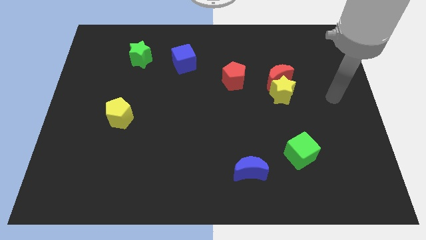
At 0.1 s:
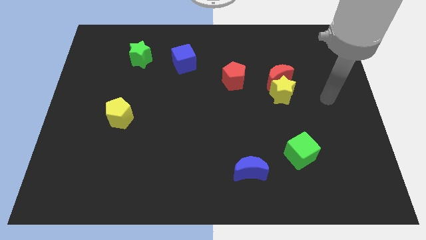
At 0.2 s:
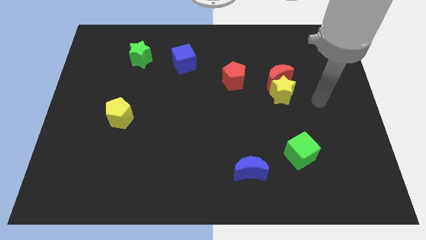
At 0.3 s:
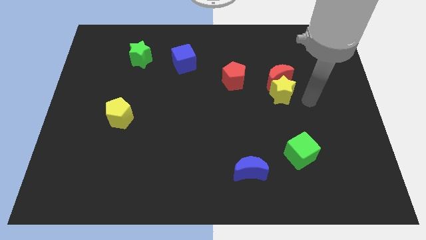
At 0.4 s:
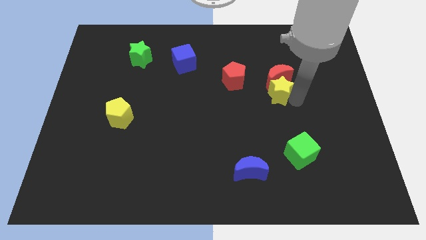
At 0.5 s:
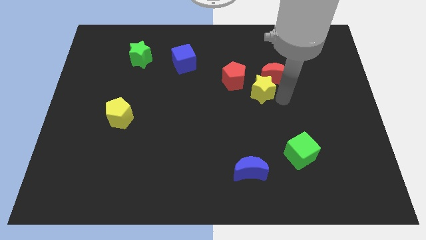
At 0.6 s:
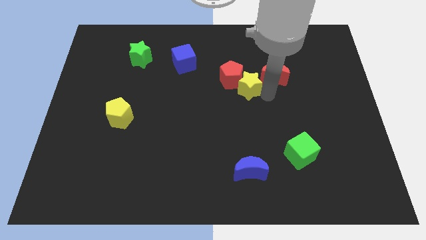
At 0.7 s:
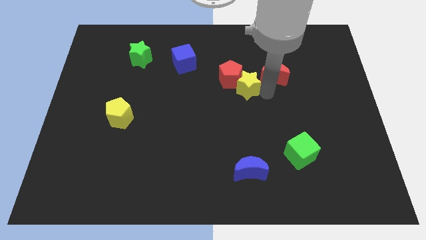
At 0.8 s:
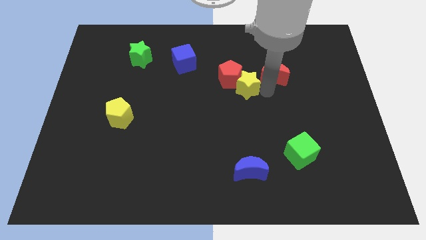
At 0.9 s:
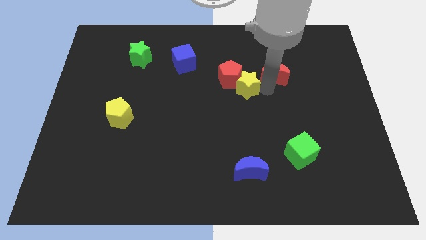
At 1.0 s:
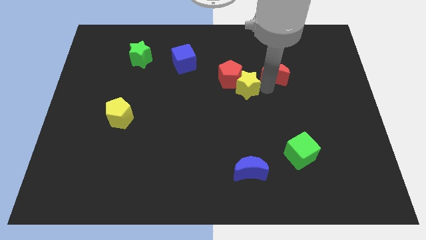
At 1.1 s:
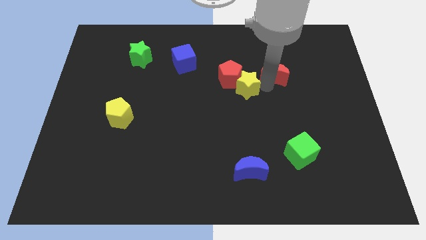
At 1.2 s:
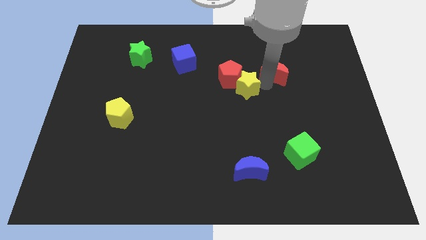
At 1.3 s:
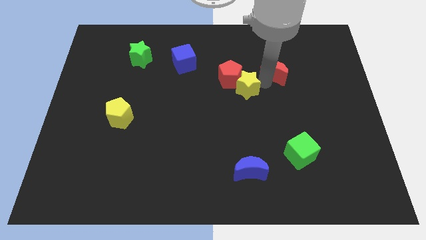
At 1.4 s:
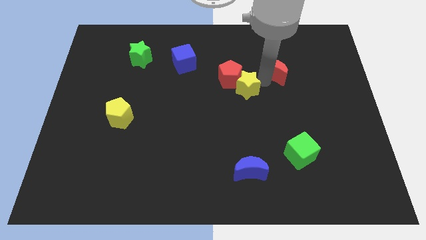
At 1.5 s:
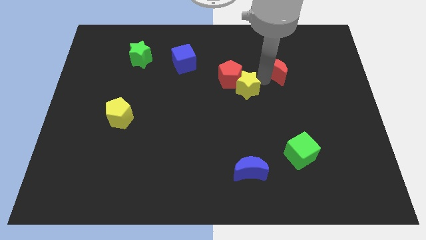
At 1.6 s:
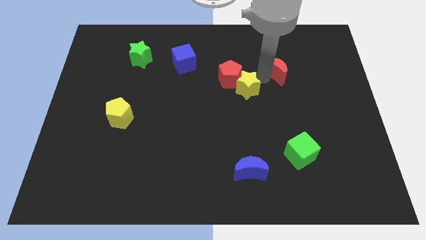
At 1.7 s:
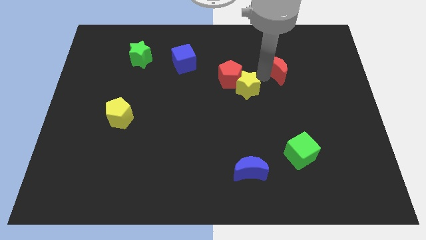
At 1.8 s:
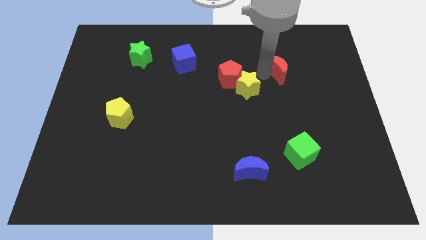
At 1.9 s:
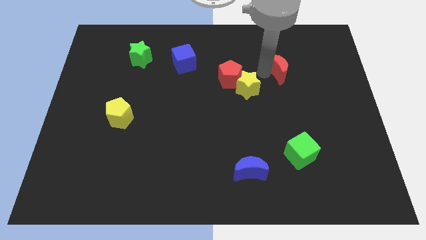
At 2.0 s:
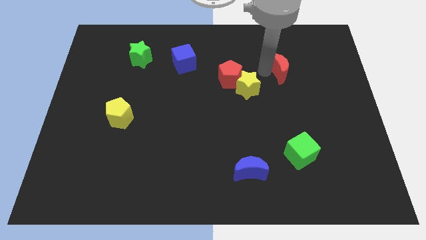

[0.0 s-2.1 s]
move the red moon away from the yellow star

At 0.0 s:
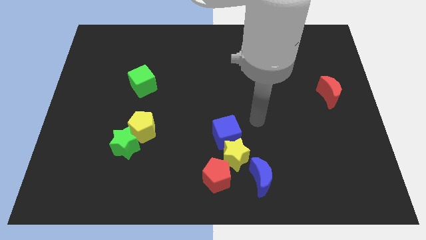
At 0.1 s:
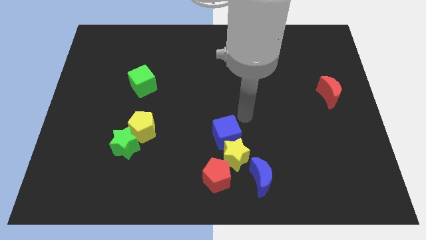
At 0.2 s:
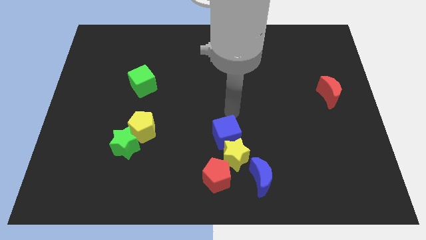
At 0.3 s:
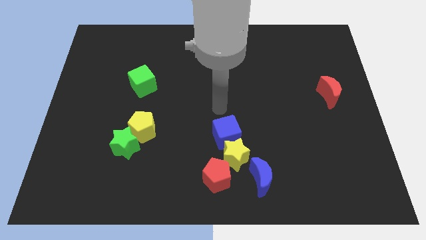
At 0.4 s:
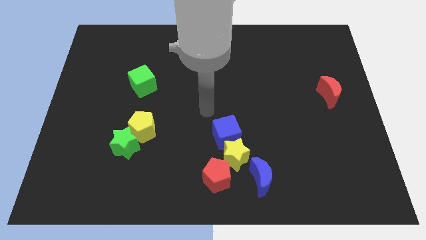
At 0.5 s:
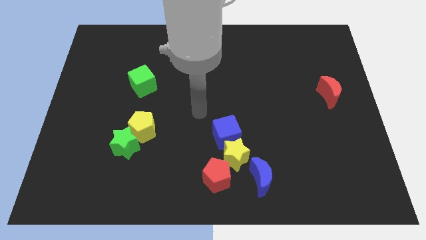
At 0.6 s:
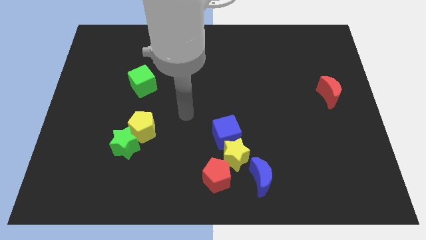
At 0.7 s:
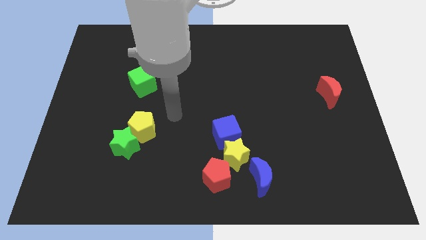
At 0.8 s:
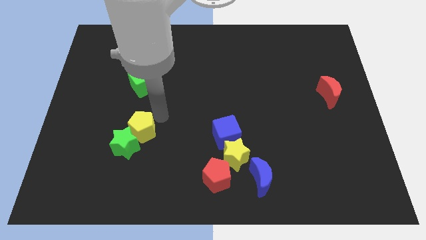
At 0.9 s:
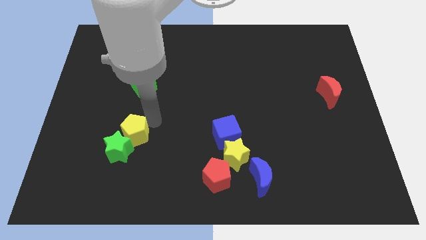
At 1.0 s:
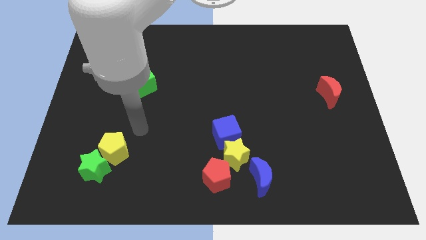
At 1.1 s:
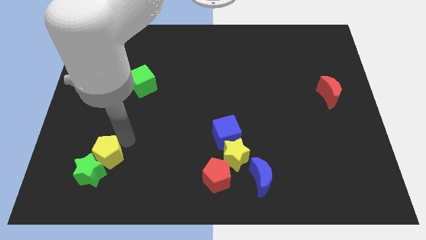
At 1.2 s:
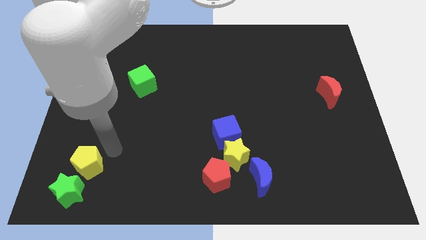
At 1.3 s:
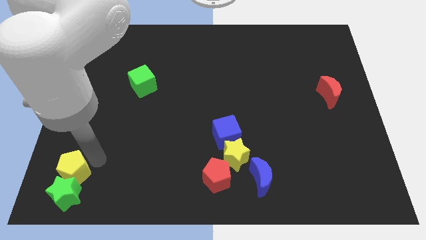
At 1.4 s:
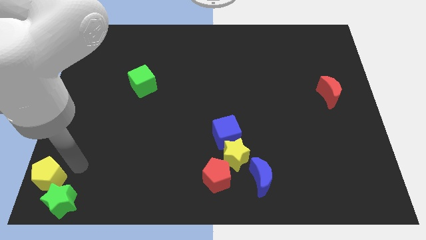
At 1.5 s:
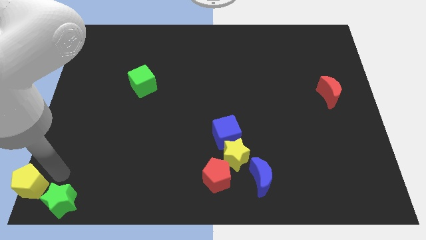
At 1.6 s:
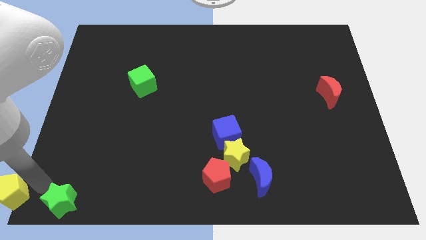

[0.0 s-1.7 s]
pull the green star apart from the yellow pentagon

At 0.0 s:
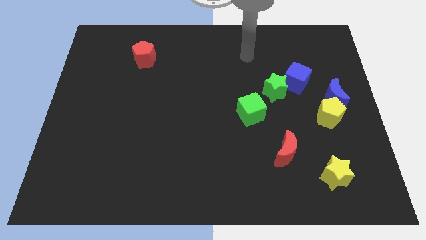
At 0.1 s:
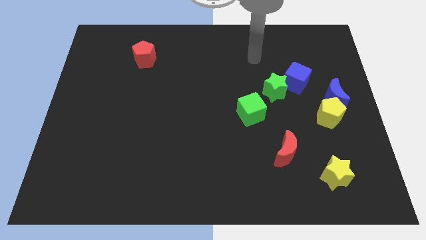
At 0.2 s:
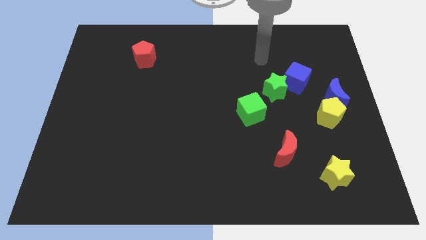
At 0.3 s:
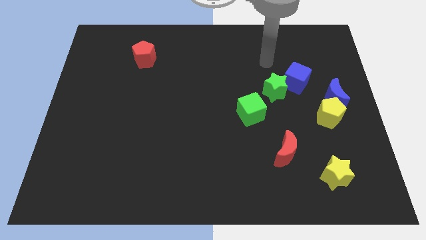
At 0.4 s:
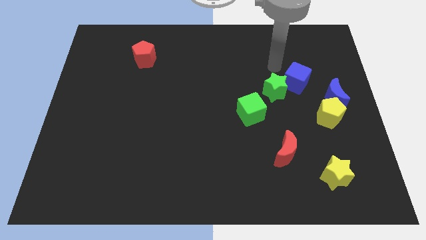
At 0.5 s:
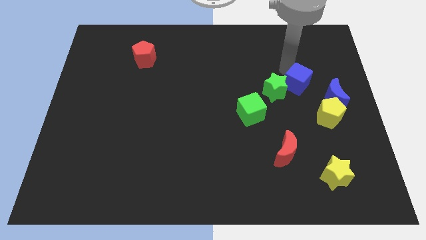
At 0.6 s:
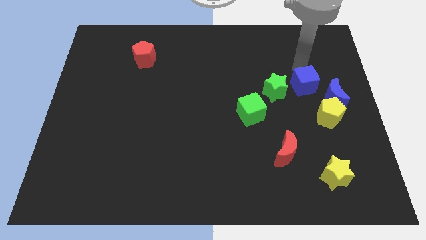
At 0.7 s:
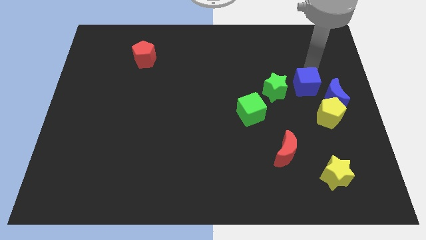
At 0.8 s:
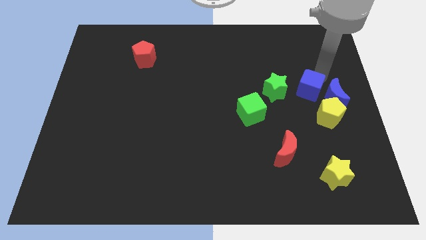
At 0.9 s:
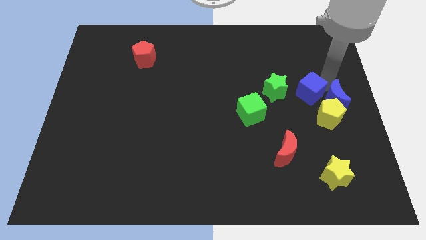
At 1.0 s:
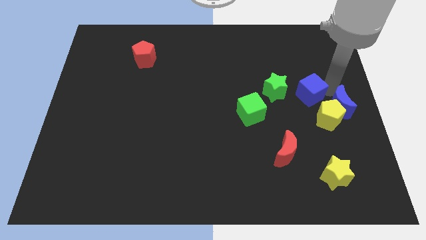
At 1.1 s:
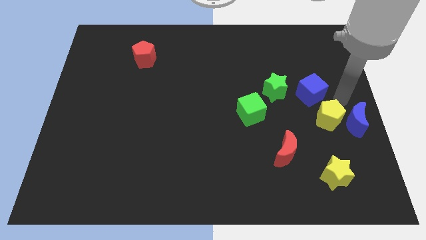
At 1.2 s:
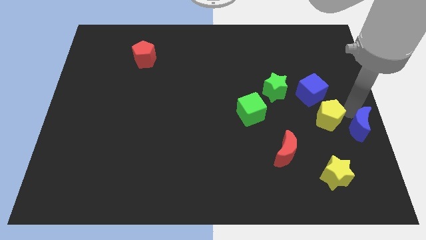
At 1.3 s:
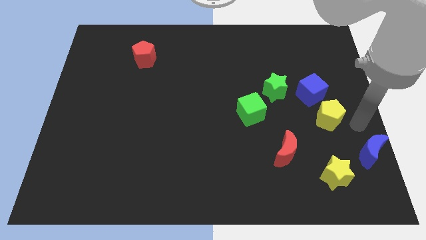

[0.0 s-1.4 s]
pull the yellow pentagon apart from the blue moon

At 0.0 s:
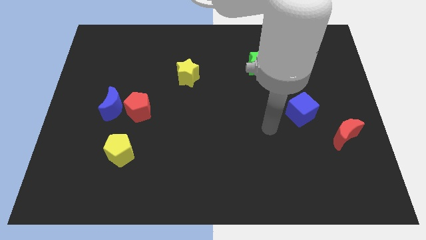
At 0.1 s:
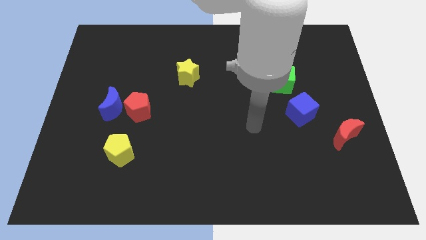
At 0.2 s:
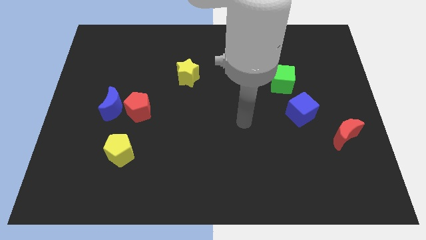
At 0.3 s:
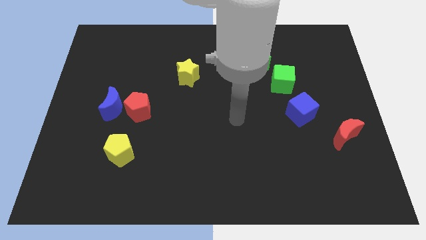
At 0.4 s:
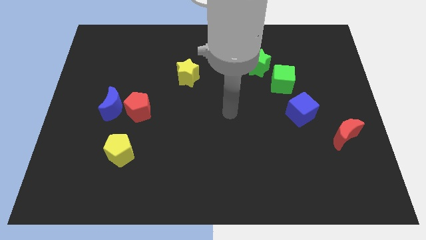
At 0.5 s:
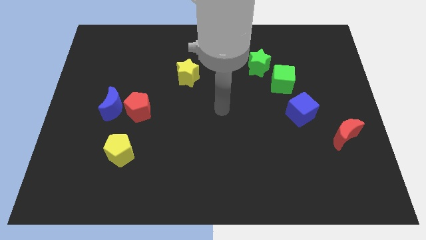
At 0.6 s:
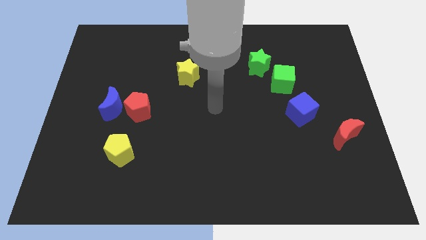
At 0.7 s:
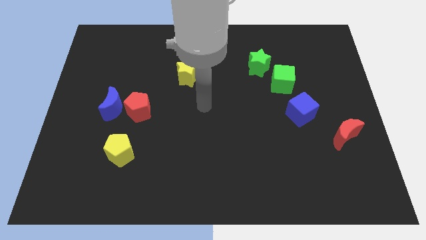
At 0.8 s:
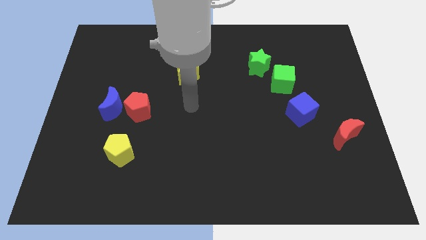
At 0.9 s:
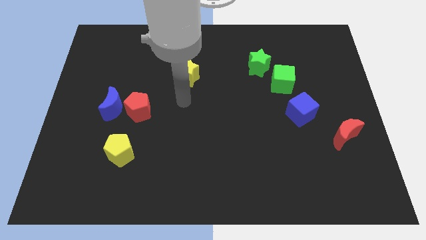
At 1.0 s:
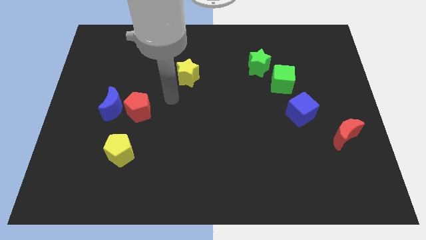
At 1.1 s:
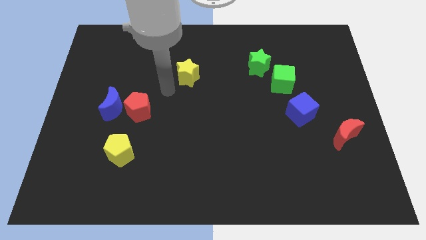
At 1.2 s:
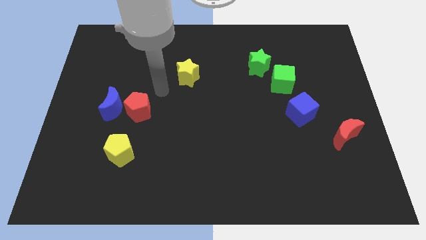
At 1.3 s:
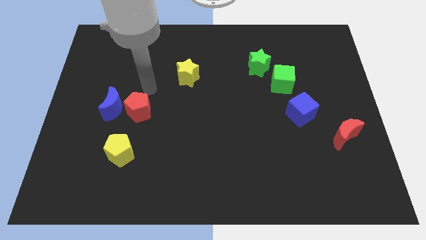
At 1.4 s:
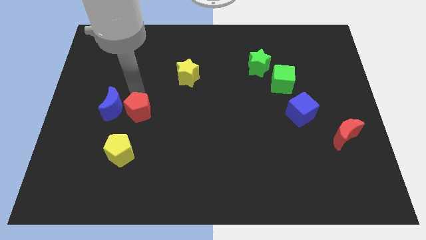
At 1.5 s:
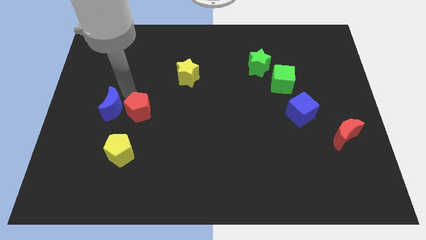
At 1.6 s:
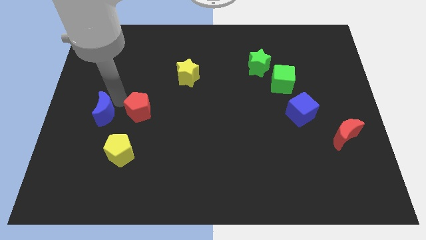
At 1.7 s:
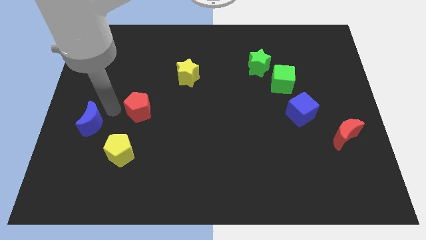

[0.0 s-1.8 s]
separate the red pentagon from the blue moon

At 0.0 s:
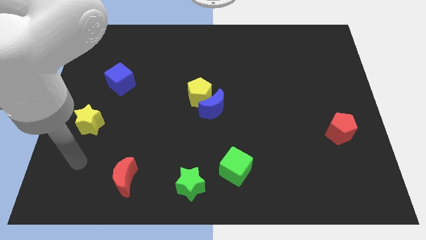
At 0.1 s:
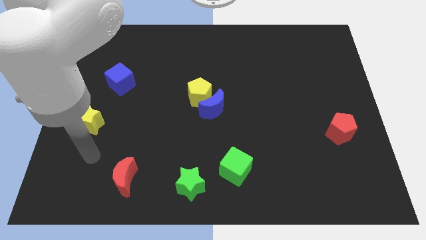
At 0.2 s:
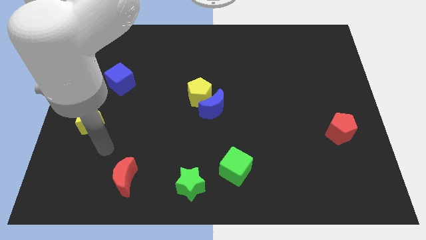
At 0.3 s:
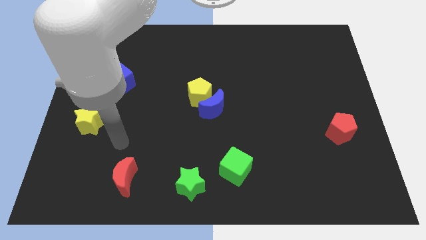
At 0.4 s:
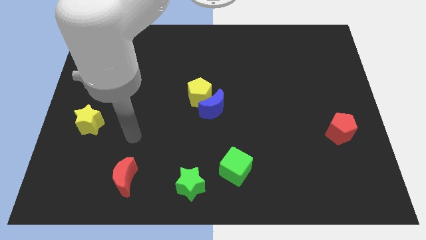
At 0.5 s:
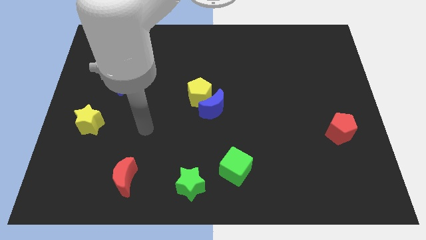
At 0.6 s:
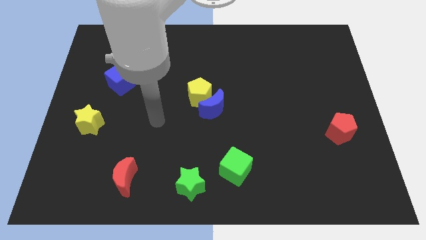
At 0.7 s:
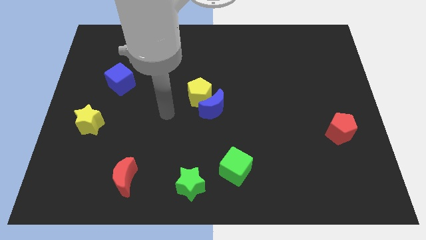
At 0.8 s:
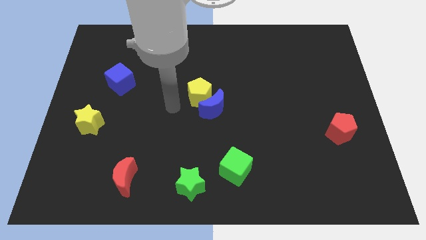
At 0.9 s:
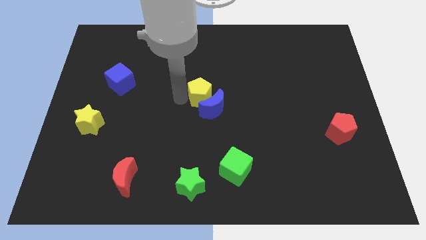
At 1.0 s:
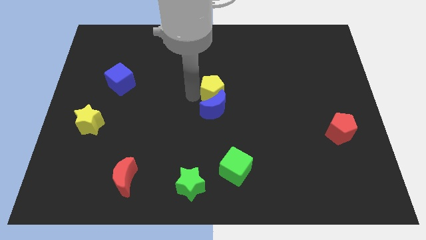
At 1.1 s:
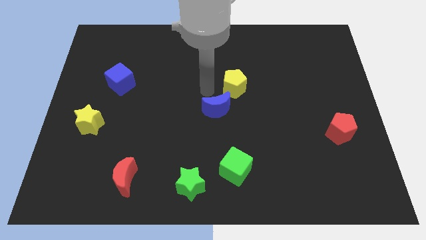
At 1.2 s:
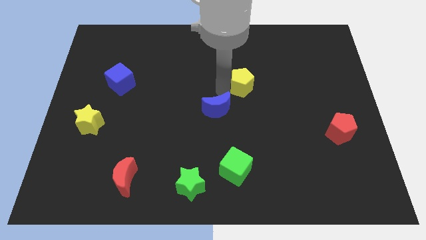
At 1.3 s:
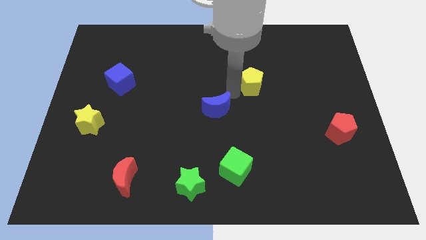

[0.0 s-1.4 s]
separate the blue moon from the yellow pentagon

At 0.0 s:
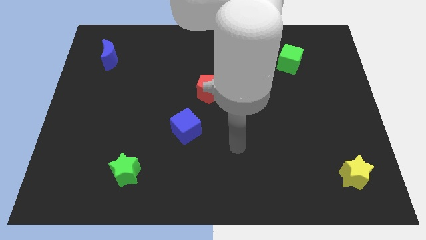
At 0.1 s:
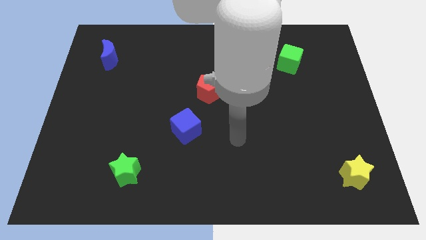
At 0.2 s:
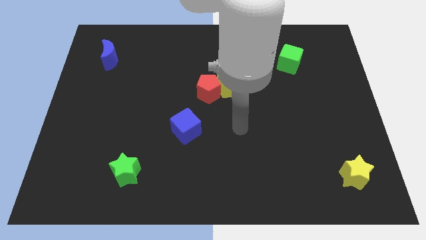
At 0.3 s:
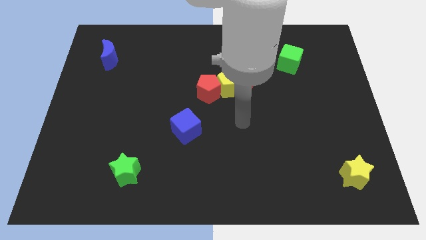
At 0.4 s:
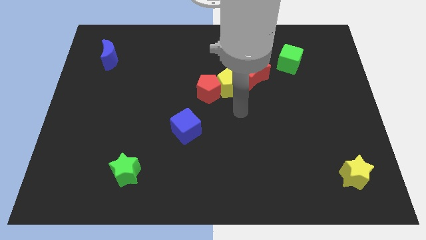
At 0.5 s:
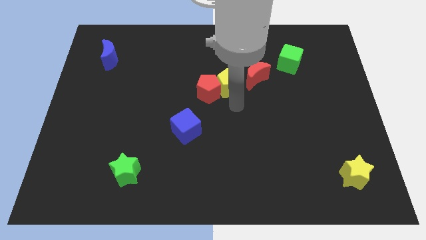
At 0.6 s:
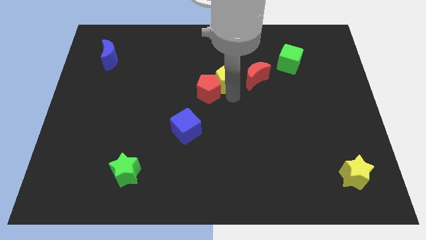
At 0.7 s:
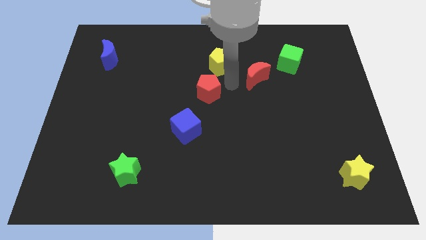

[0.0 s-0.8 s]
move the red pentagon away from the yellow pentagon

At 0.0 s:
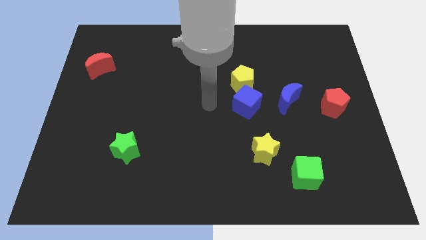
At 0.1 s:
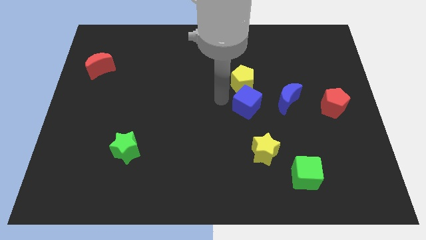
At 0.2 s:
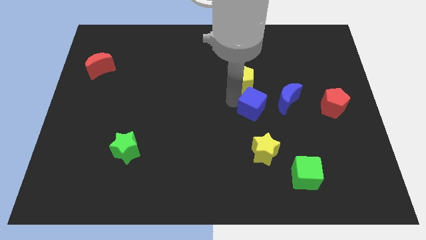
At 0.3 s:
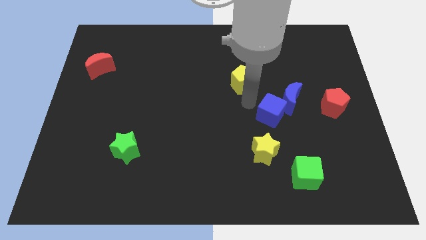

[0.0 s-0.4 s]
pull the yellow pentagon apart from the blue cube
